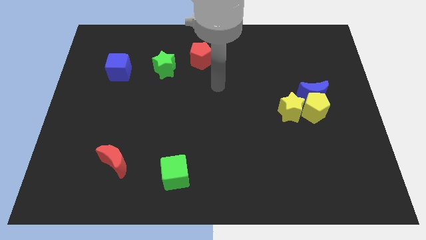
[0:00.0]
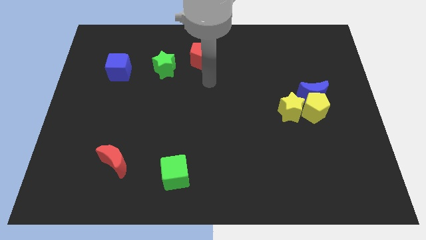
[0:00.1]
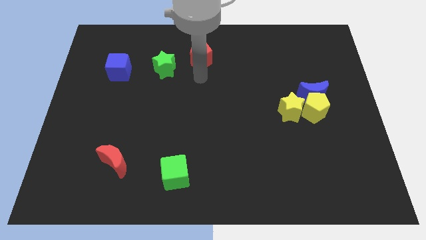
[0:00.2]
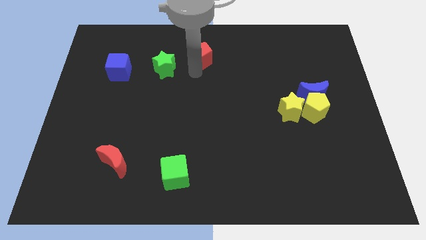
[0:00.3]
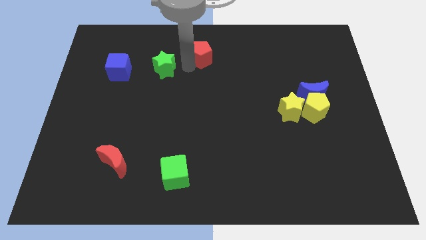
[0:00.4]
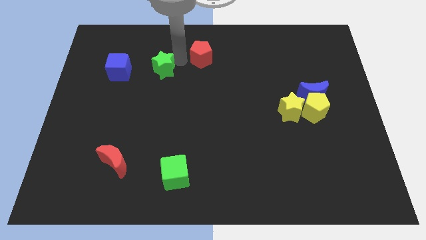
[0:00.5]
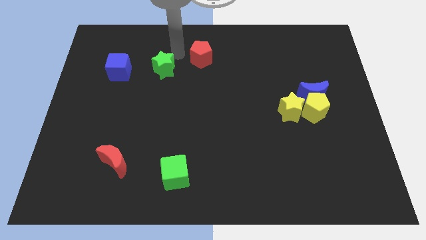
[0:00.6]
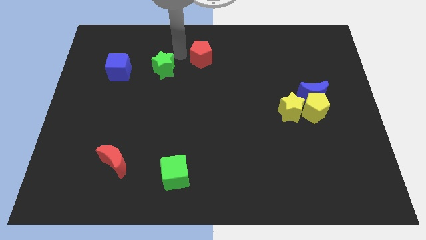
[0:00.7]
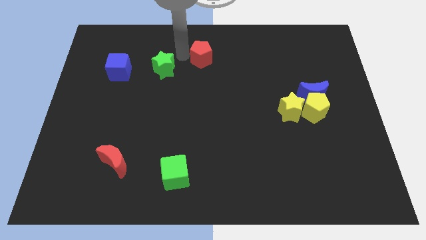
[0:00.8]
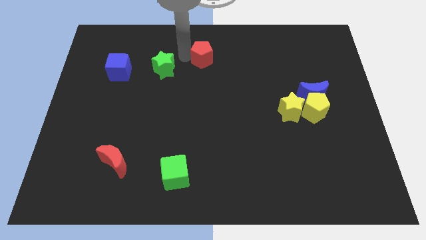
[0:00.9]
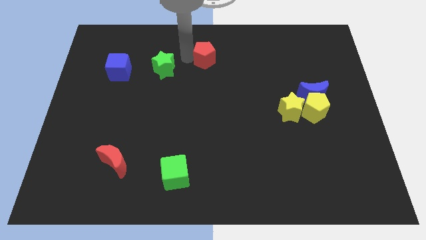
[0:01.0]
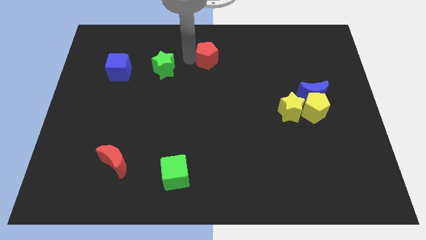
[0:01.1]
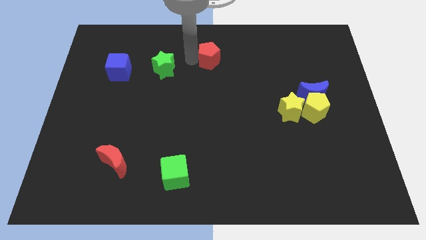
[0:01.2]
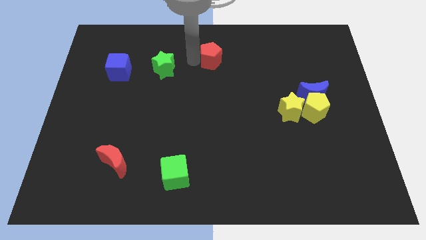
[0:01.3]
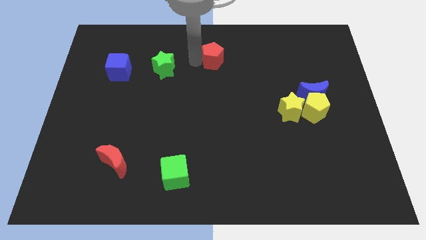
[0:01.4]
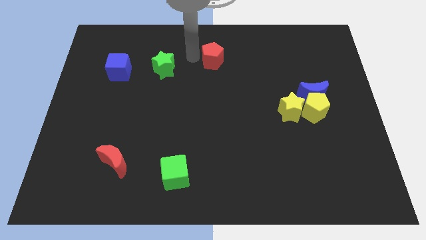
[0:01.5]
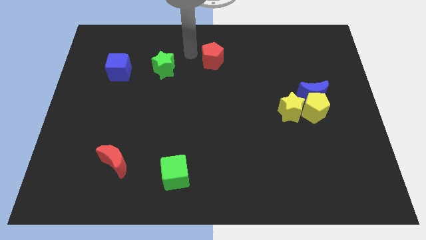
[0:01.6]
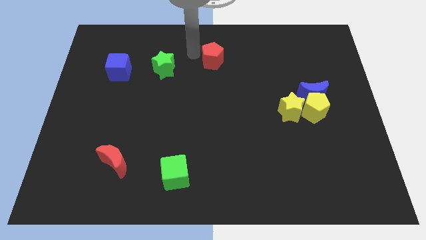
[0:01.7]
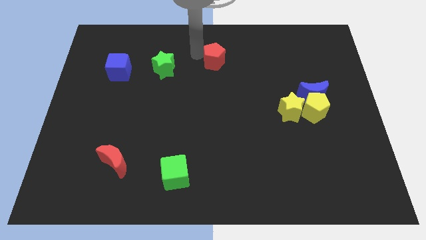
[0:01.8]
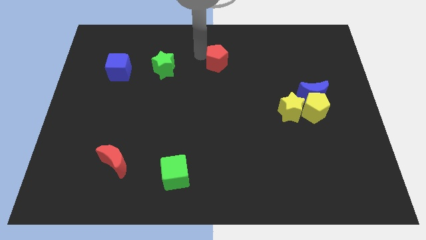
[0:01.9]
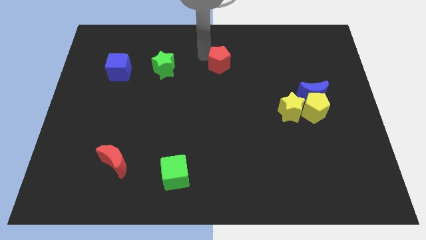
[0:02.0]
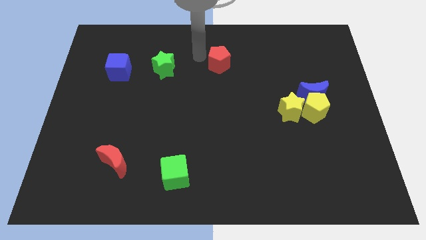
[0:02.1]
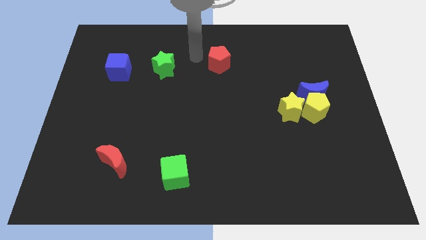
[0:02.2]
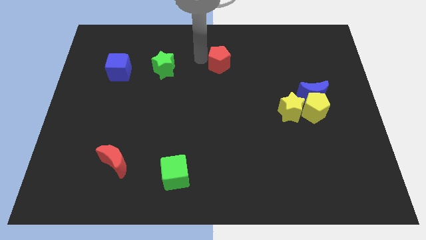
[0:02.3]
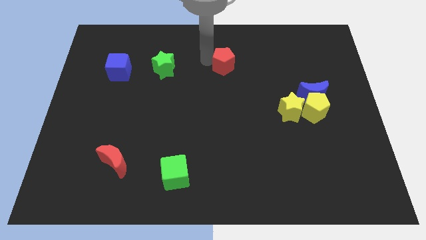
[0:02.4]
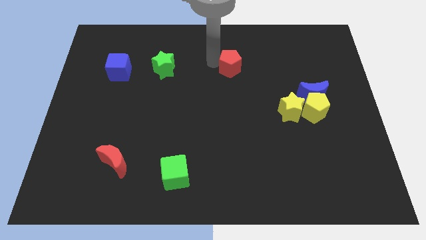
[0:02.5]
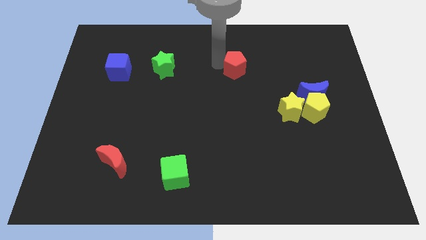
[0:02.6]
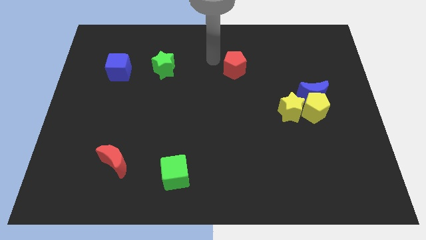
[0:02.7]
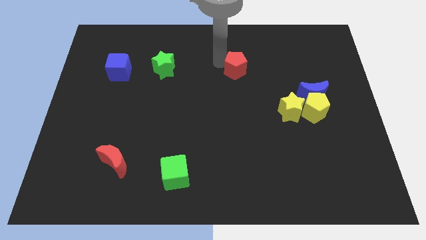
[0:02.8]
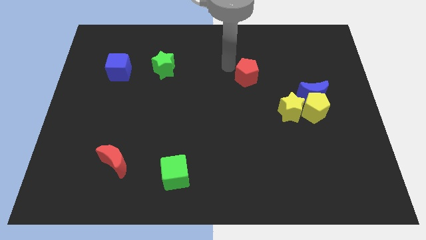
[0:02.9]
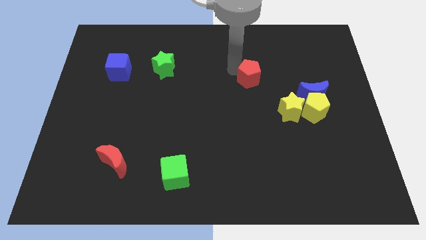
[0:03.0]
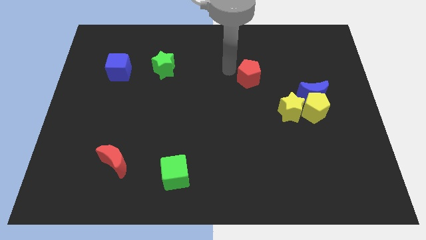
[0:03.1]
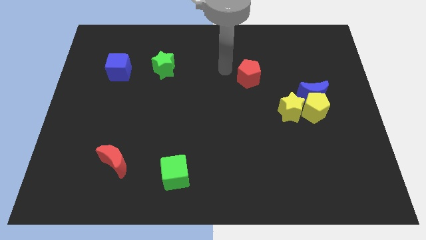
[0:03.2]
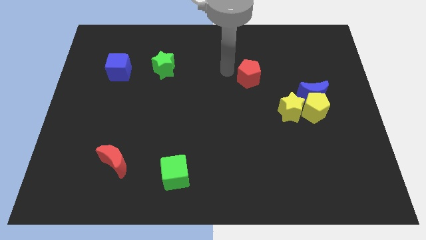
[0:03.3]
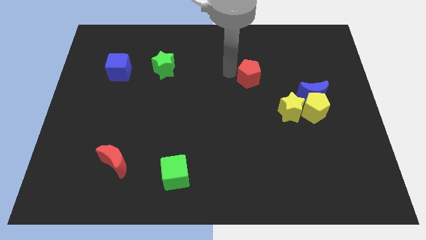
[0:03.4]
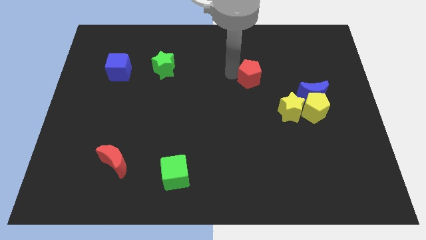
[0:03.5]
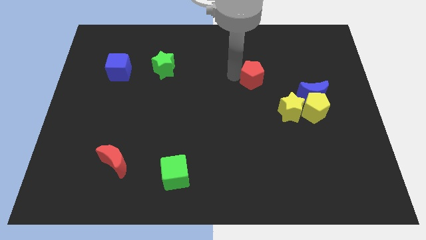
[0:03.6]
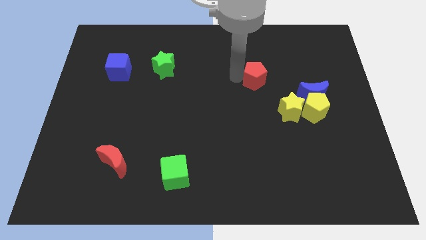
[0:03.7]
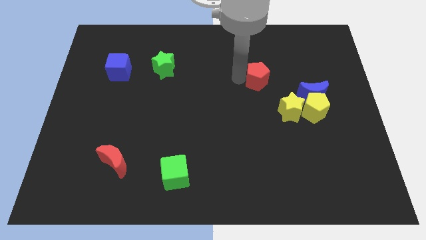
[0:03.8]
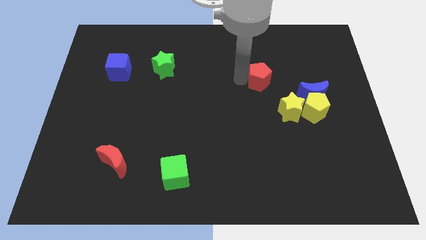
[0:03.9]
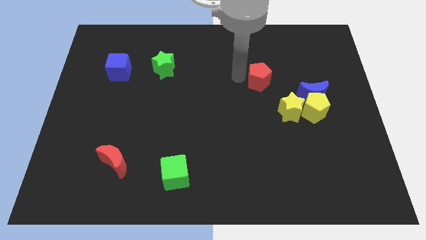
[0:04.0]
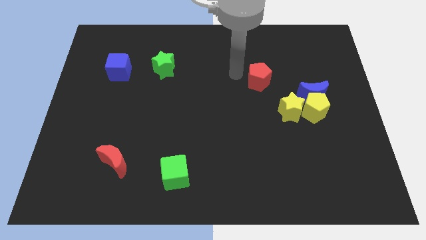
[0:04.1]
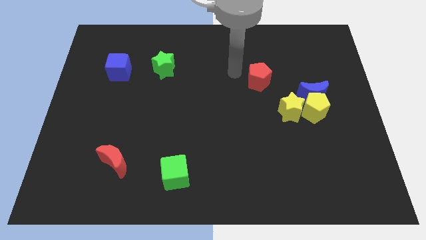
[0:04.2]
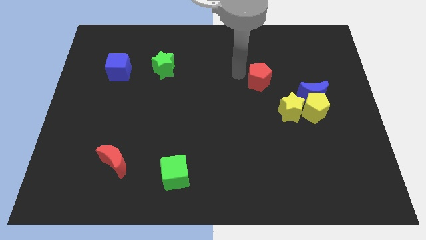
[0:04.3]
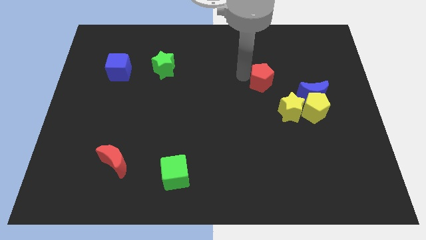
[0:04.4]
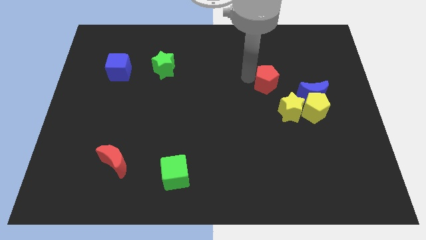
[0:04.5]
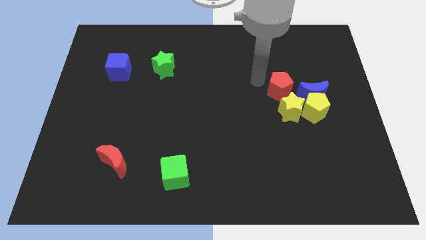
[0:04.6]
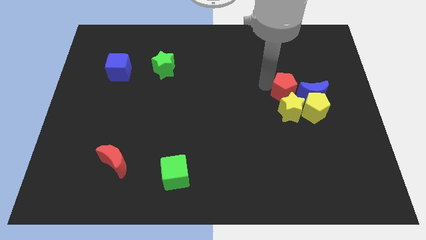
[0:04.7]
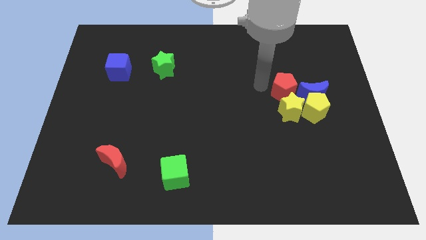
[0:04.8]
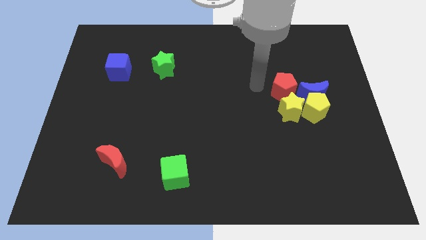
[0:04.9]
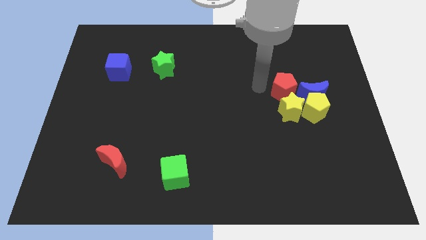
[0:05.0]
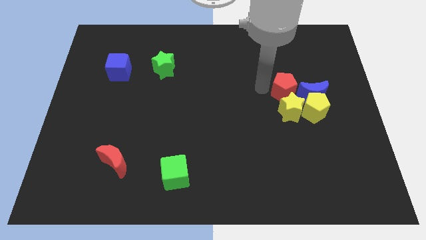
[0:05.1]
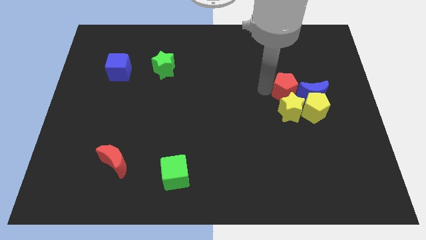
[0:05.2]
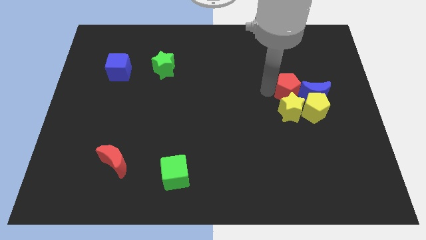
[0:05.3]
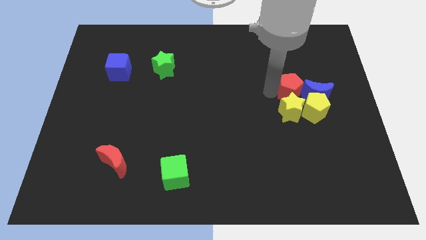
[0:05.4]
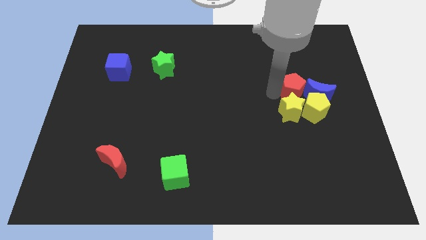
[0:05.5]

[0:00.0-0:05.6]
slide the red pentagon close to the blue moon

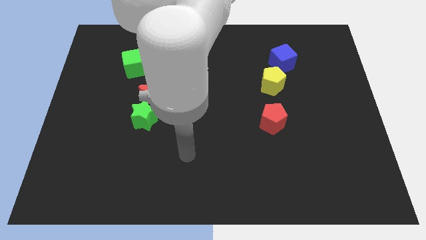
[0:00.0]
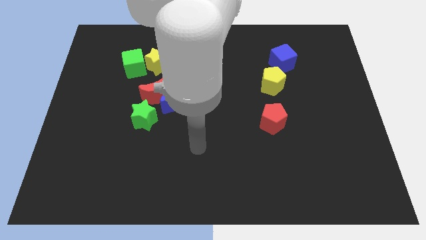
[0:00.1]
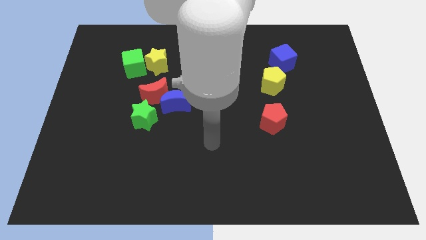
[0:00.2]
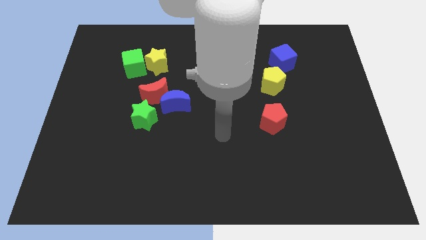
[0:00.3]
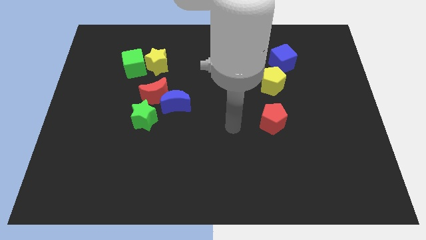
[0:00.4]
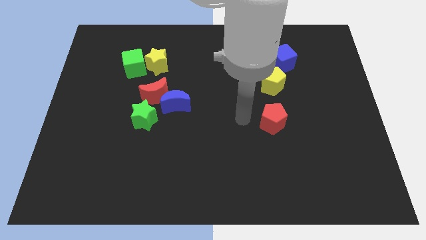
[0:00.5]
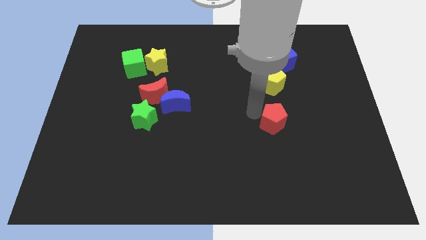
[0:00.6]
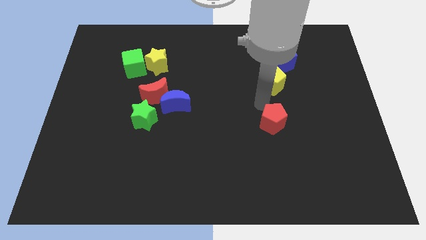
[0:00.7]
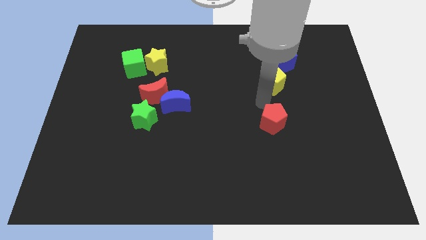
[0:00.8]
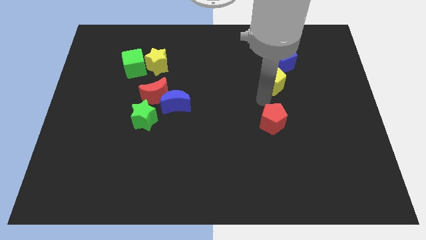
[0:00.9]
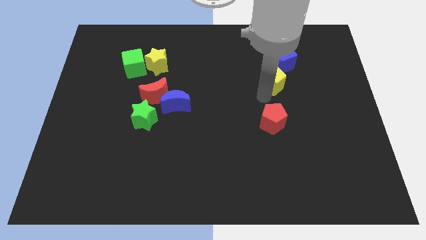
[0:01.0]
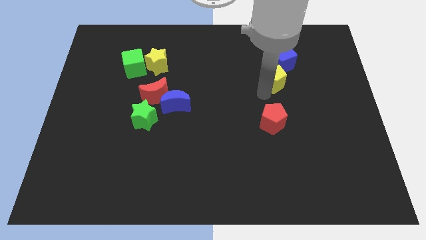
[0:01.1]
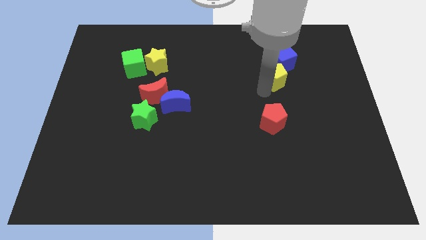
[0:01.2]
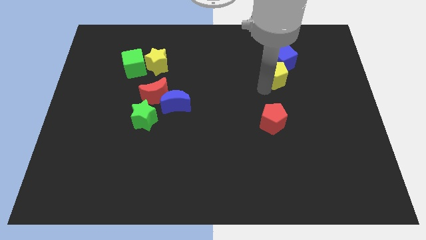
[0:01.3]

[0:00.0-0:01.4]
slide the yellow pentagon close to the blue cube
